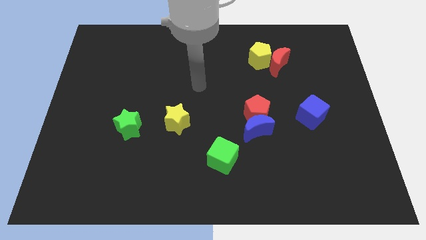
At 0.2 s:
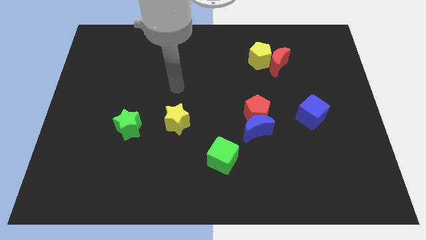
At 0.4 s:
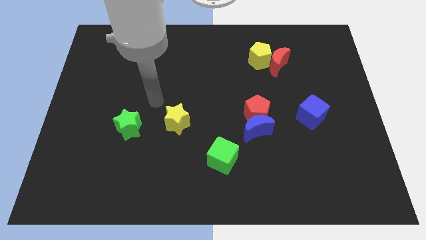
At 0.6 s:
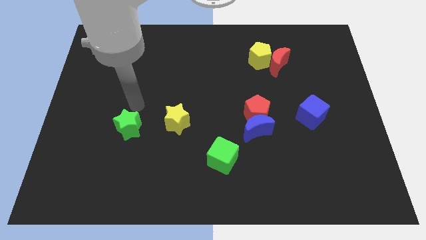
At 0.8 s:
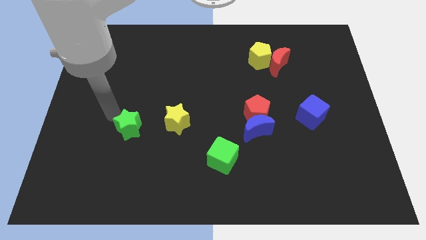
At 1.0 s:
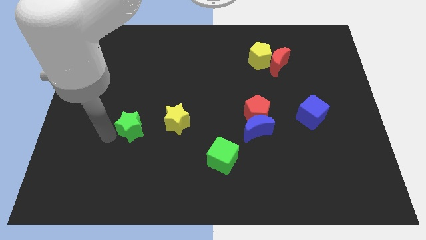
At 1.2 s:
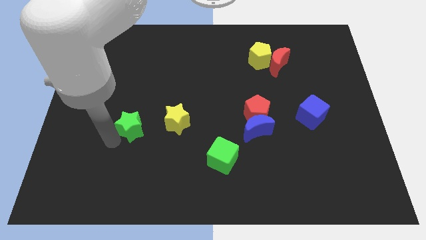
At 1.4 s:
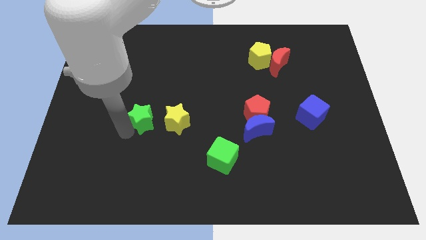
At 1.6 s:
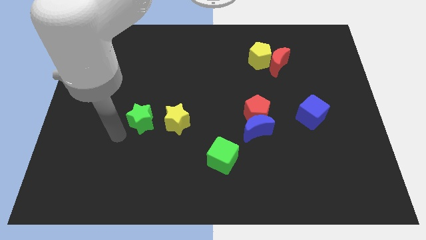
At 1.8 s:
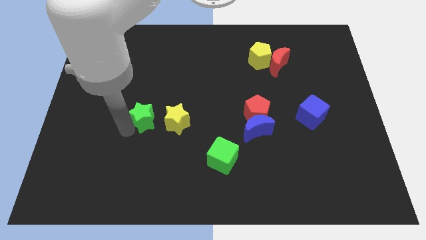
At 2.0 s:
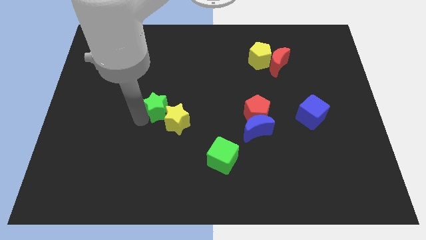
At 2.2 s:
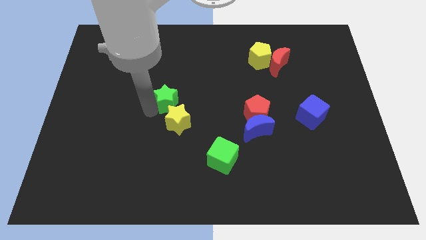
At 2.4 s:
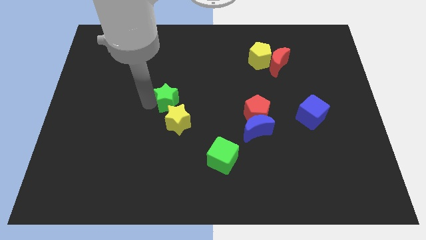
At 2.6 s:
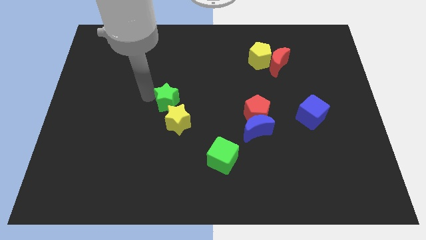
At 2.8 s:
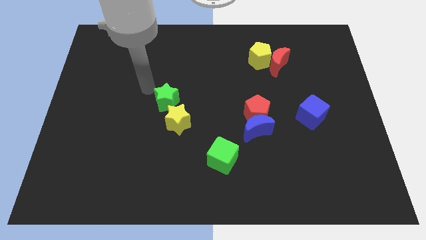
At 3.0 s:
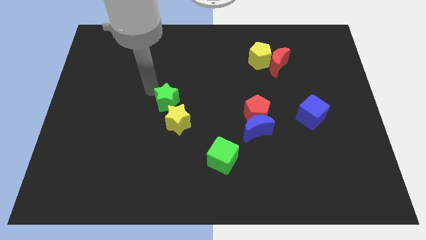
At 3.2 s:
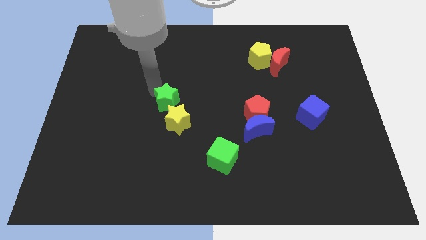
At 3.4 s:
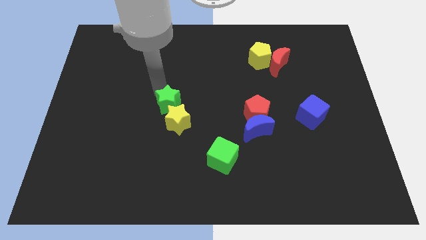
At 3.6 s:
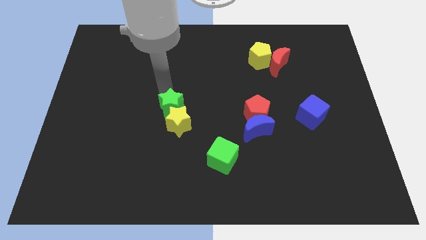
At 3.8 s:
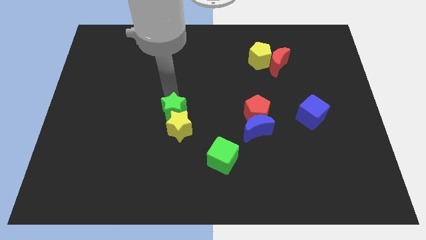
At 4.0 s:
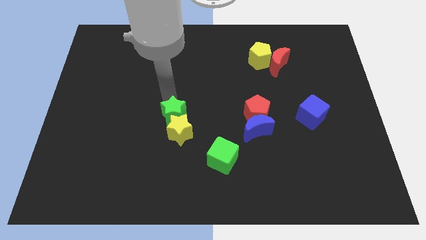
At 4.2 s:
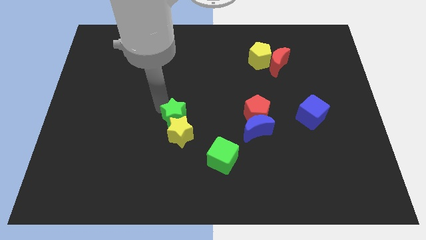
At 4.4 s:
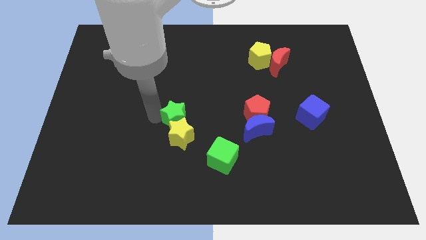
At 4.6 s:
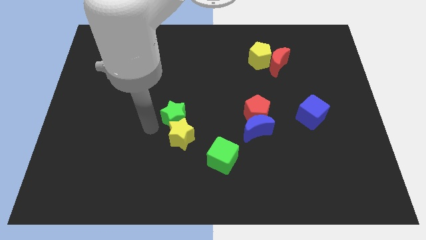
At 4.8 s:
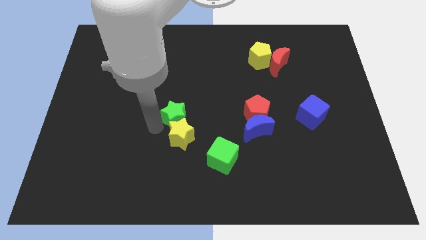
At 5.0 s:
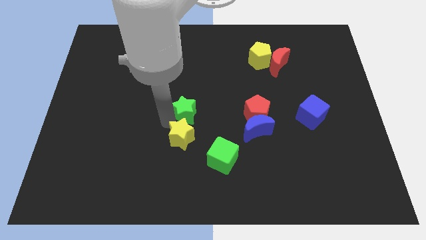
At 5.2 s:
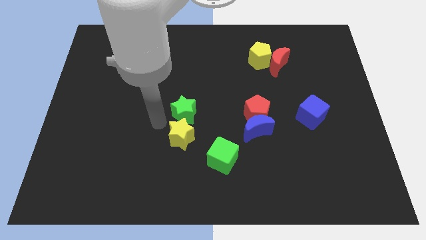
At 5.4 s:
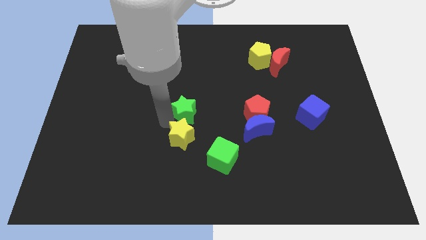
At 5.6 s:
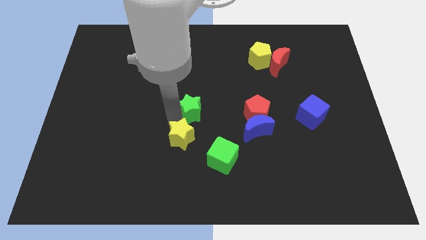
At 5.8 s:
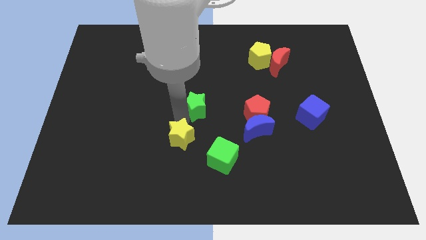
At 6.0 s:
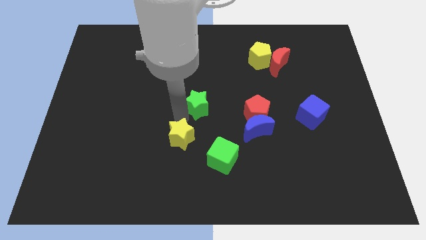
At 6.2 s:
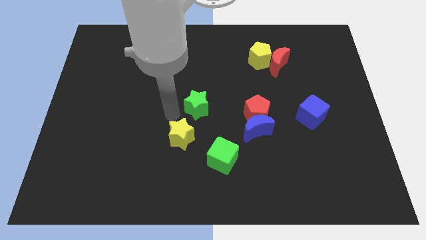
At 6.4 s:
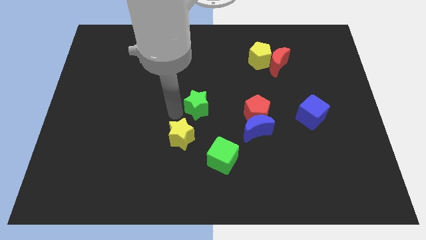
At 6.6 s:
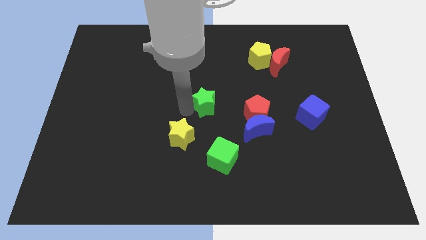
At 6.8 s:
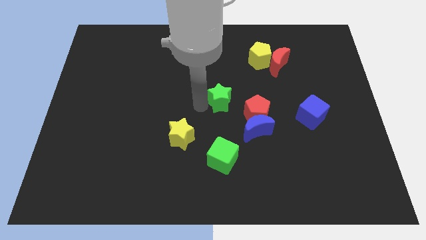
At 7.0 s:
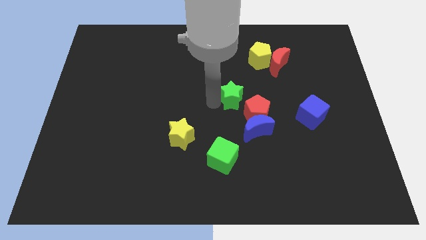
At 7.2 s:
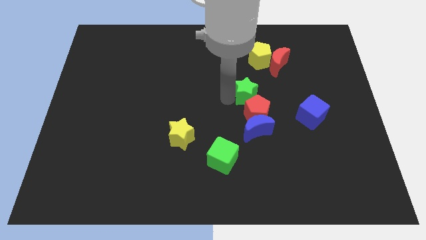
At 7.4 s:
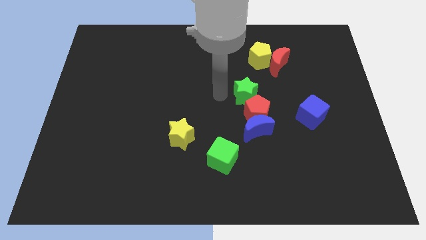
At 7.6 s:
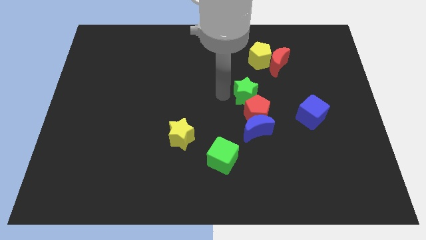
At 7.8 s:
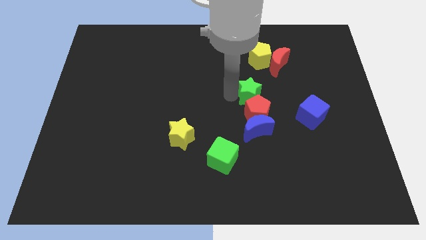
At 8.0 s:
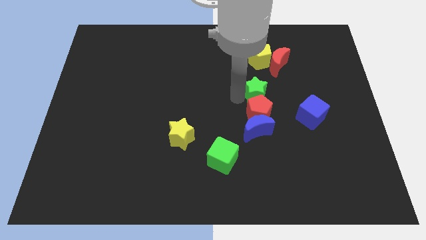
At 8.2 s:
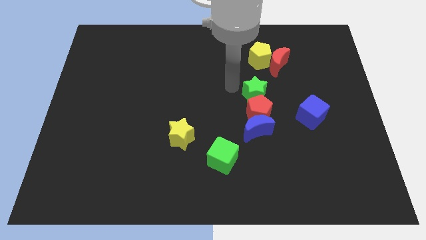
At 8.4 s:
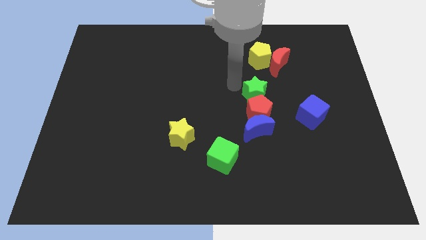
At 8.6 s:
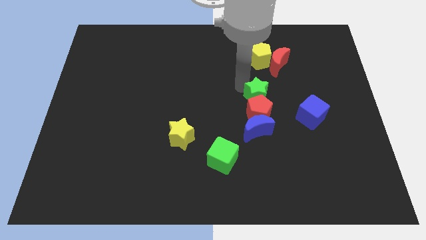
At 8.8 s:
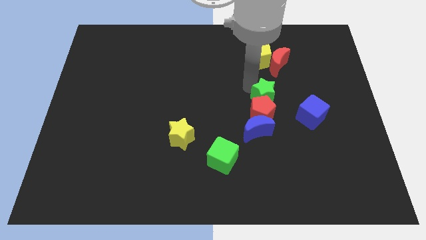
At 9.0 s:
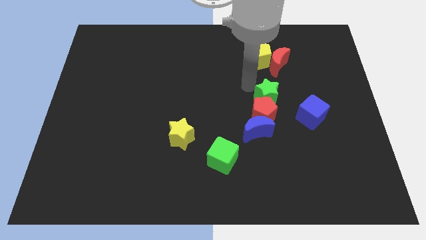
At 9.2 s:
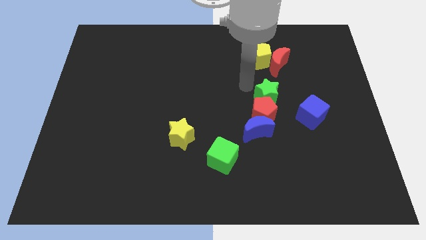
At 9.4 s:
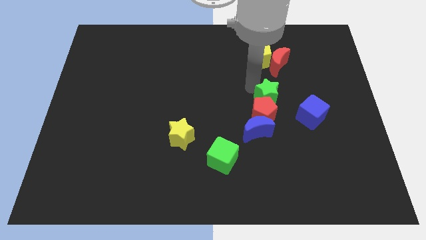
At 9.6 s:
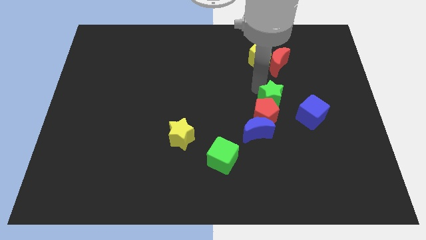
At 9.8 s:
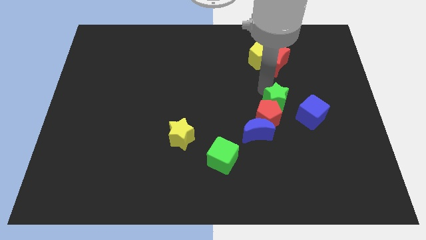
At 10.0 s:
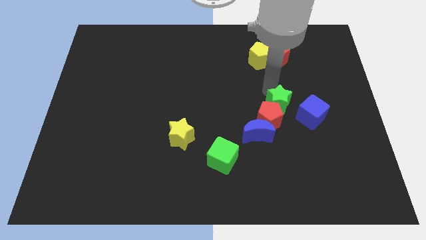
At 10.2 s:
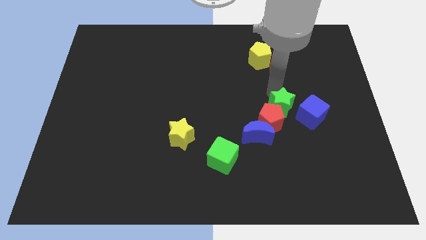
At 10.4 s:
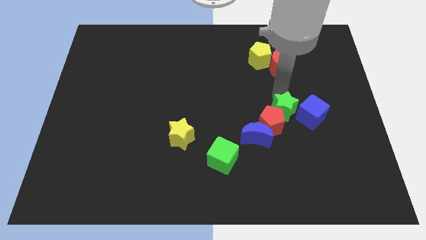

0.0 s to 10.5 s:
push the green star close to the blue cube

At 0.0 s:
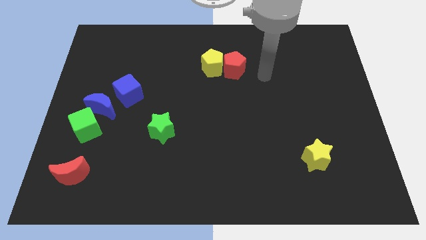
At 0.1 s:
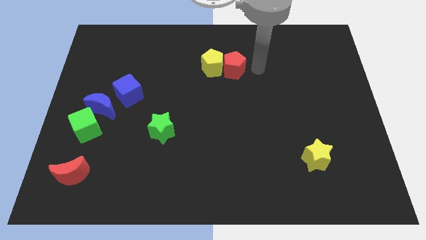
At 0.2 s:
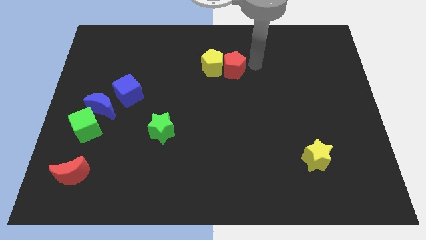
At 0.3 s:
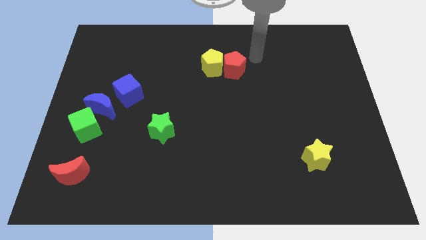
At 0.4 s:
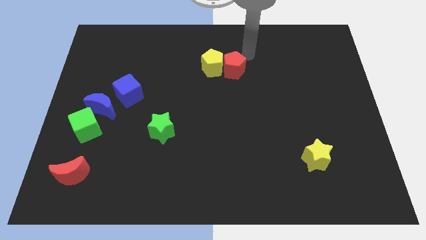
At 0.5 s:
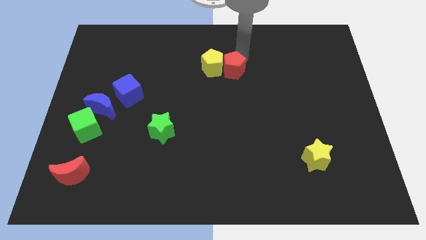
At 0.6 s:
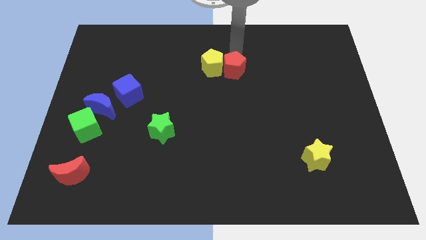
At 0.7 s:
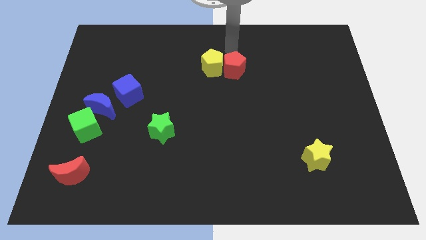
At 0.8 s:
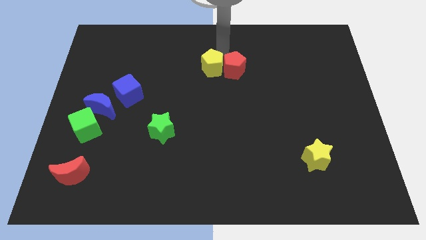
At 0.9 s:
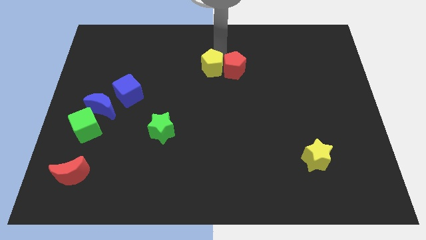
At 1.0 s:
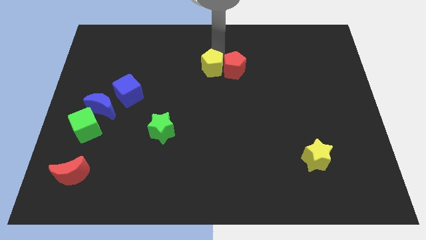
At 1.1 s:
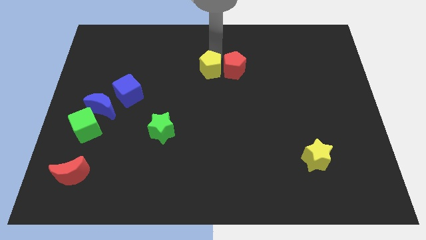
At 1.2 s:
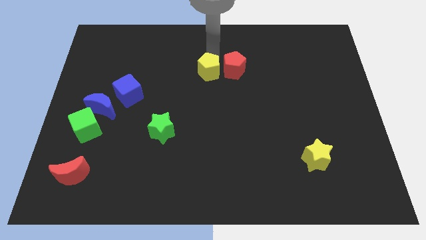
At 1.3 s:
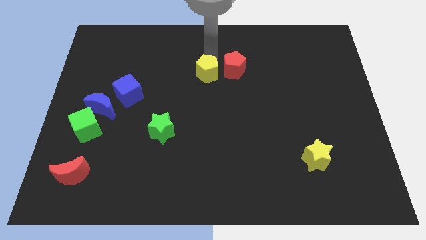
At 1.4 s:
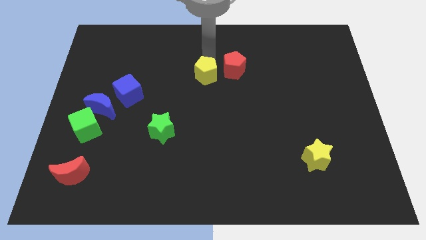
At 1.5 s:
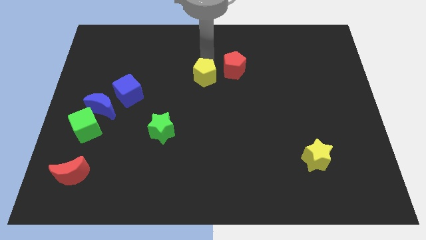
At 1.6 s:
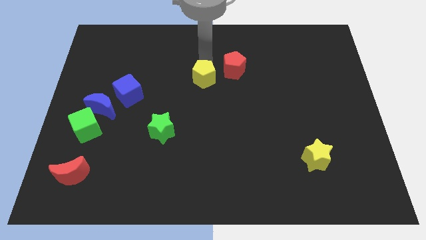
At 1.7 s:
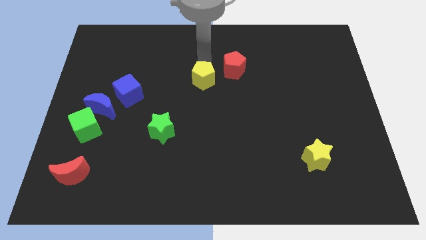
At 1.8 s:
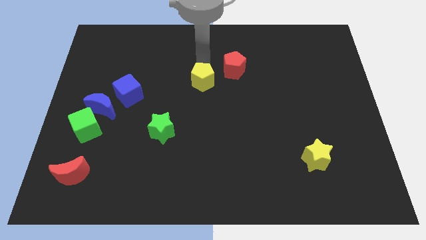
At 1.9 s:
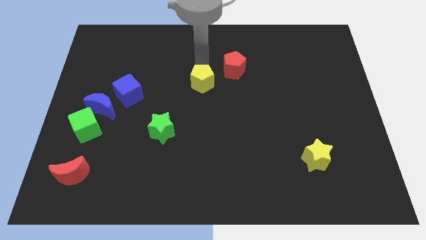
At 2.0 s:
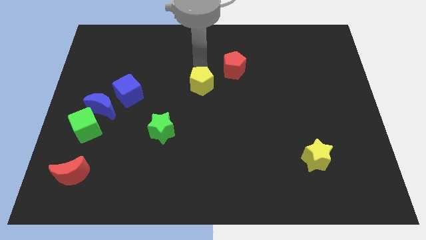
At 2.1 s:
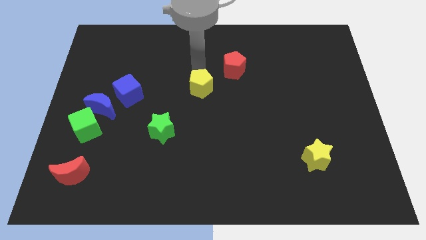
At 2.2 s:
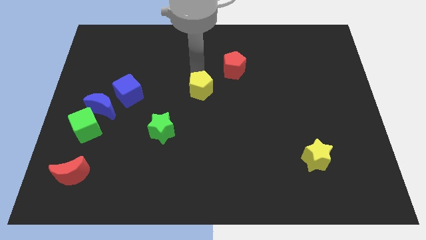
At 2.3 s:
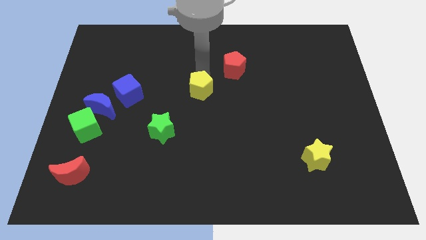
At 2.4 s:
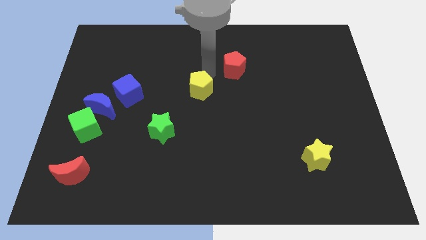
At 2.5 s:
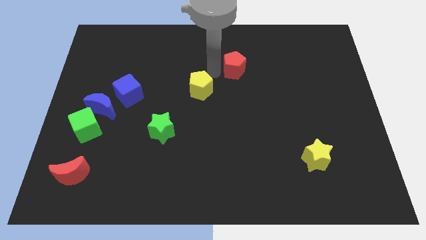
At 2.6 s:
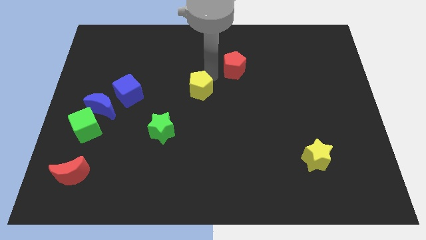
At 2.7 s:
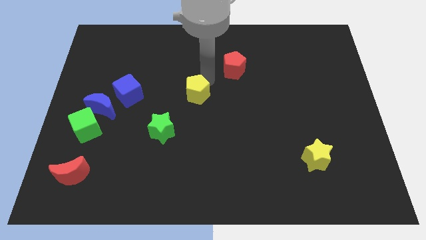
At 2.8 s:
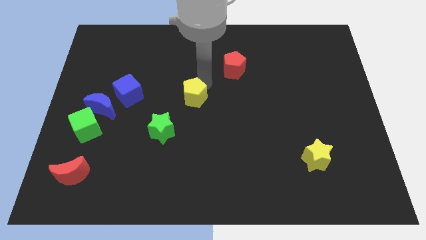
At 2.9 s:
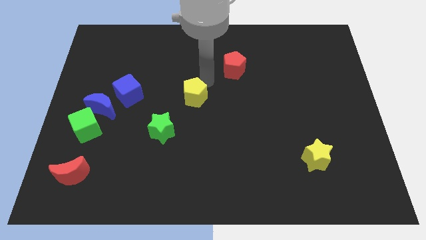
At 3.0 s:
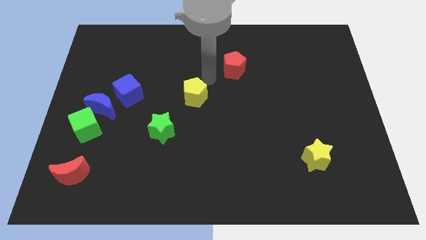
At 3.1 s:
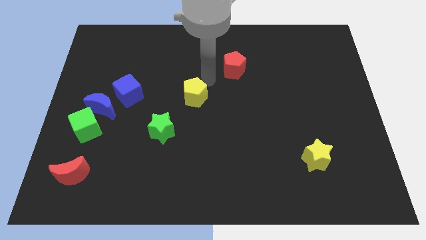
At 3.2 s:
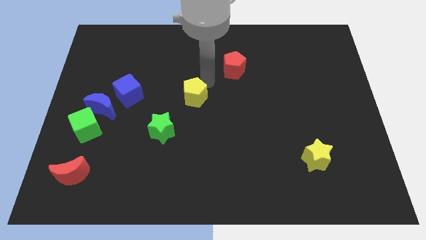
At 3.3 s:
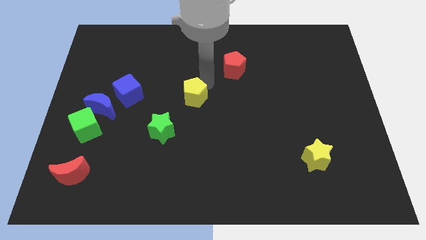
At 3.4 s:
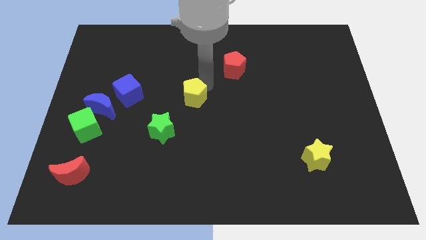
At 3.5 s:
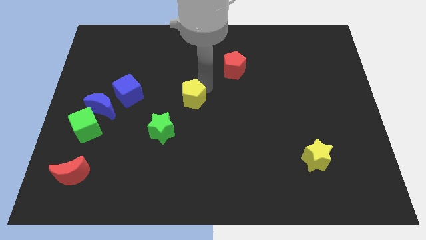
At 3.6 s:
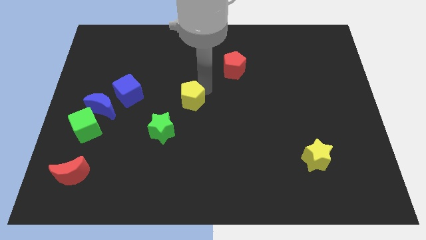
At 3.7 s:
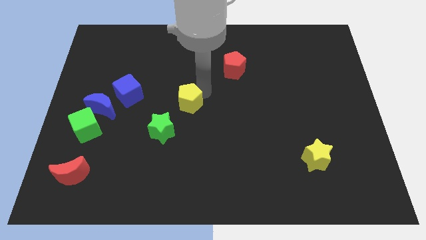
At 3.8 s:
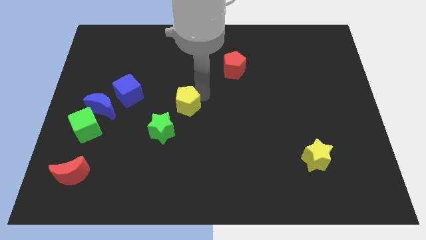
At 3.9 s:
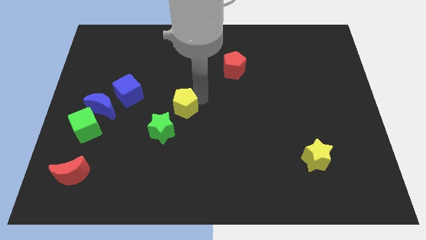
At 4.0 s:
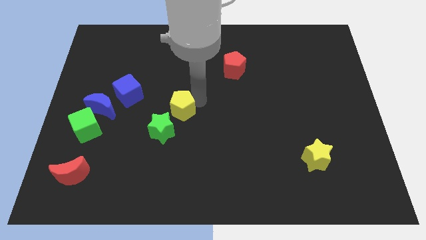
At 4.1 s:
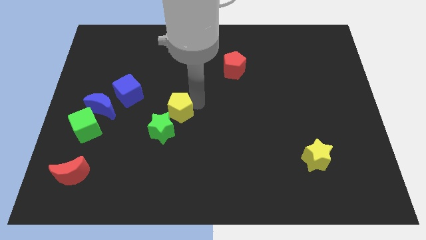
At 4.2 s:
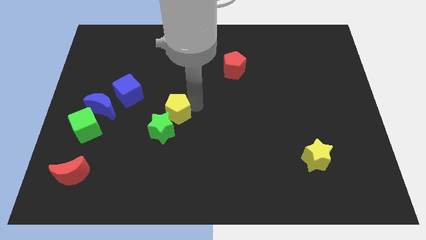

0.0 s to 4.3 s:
move the yellow pentagon next to the green star
